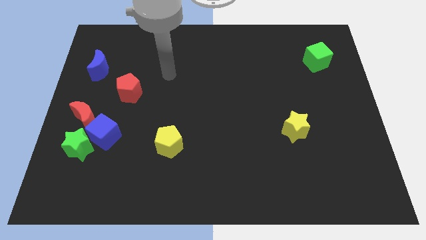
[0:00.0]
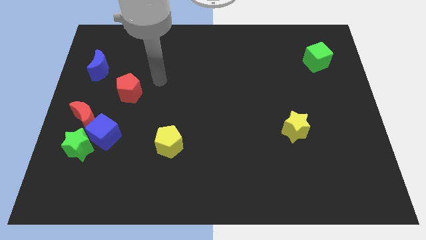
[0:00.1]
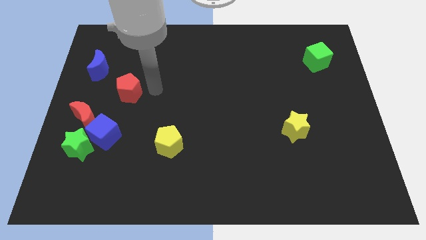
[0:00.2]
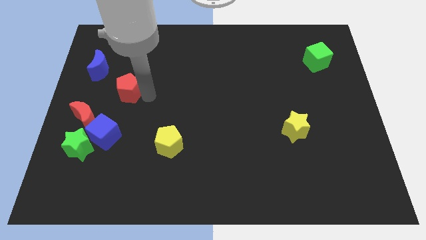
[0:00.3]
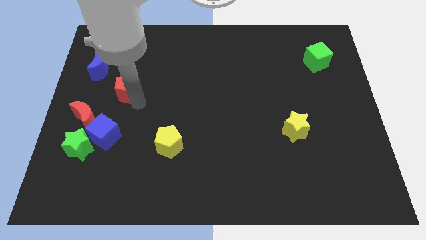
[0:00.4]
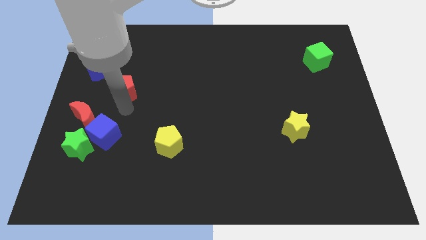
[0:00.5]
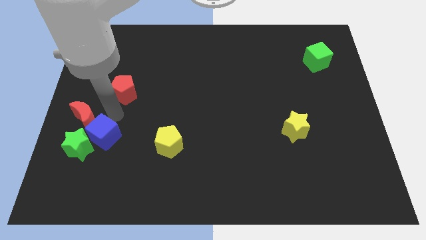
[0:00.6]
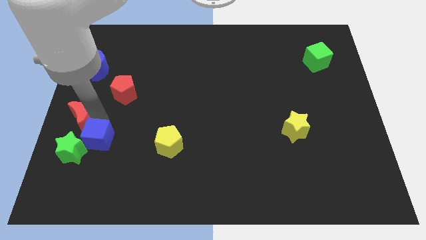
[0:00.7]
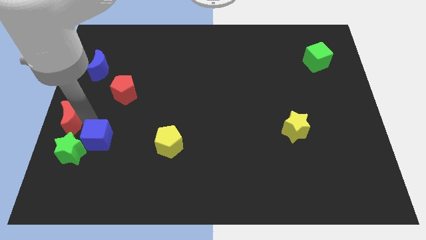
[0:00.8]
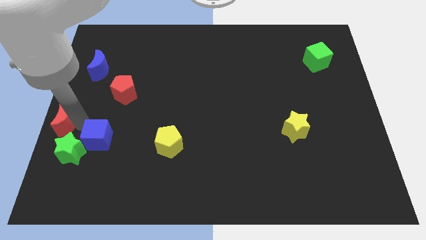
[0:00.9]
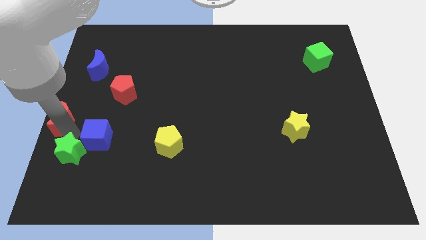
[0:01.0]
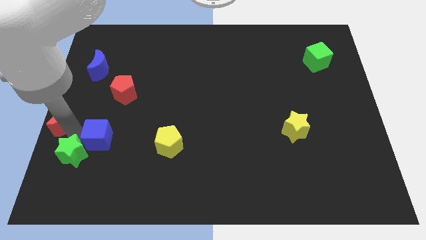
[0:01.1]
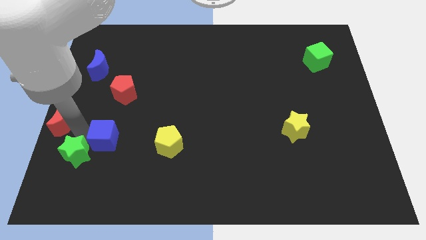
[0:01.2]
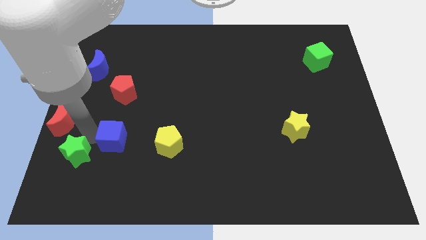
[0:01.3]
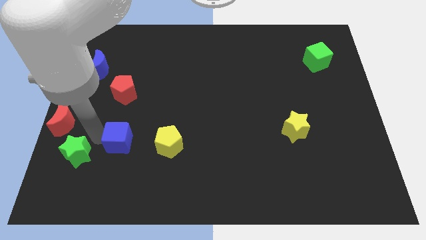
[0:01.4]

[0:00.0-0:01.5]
separate the blue cube from the green star and red moon

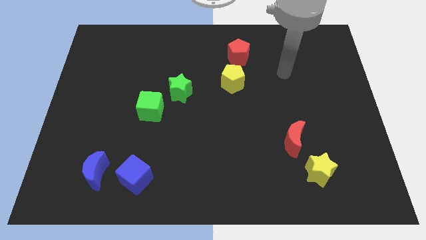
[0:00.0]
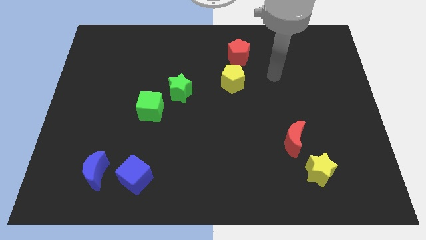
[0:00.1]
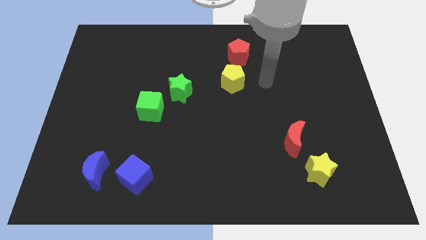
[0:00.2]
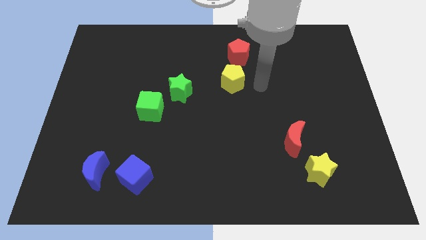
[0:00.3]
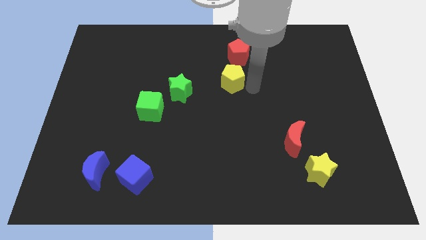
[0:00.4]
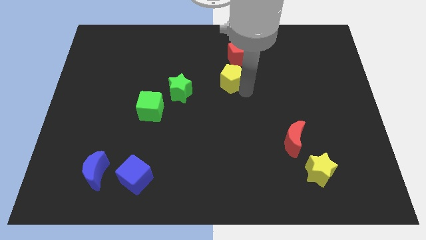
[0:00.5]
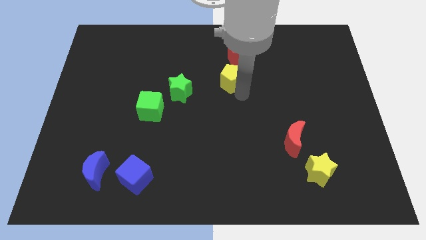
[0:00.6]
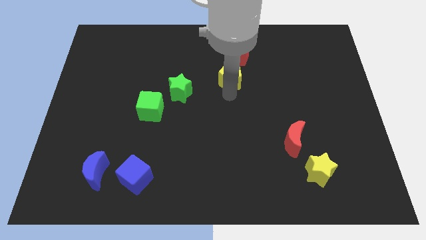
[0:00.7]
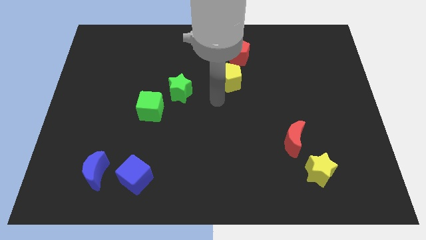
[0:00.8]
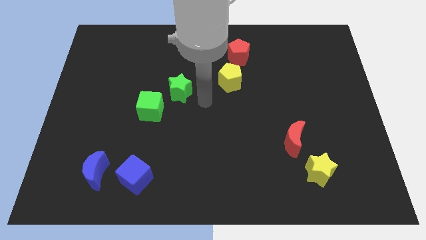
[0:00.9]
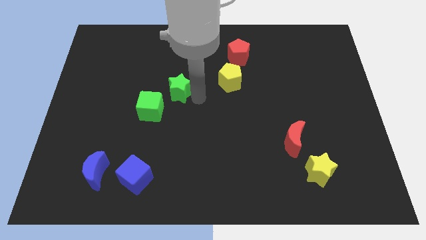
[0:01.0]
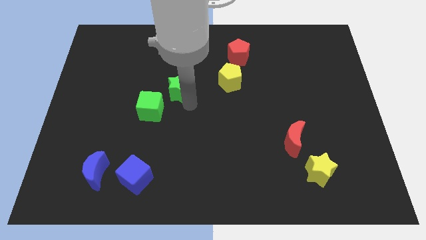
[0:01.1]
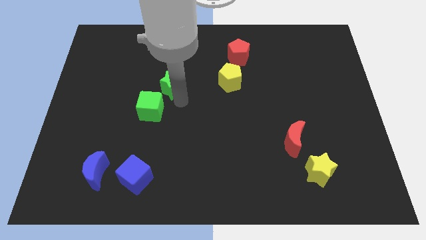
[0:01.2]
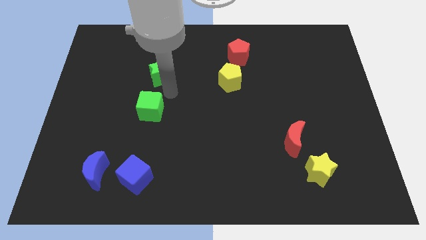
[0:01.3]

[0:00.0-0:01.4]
move the green cube away from the green star

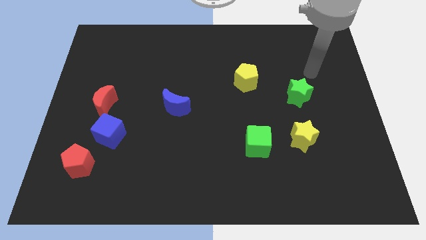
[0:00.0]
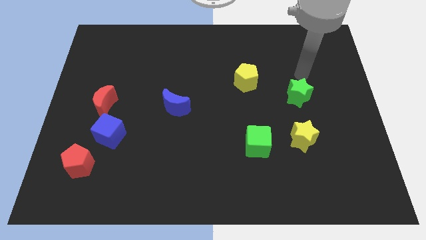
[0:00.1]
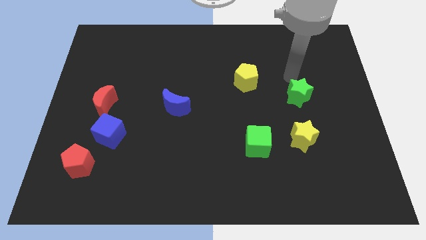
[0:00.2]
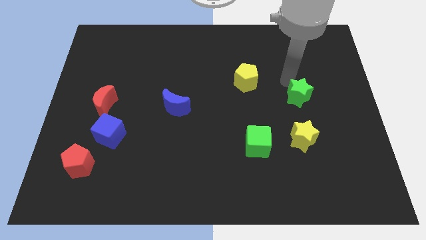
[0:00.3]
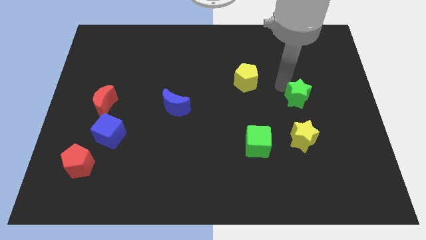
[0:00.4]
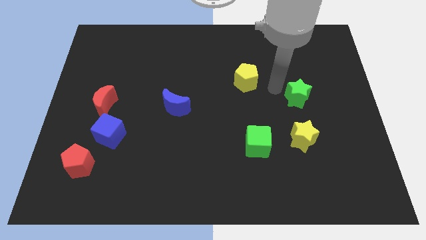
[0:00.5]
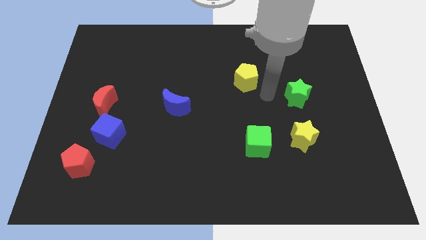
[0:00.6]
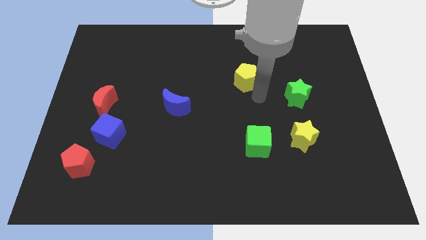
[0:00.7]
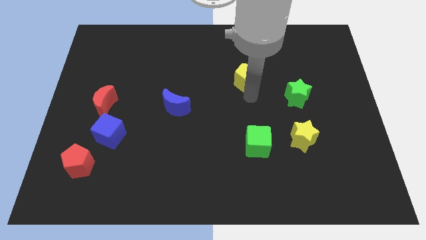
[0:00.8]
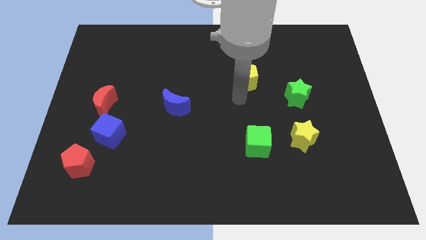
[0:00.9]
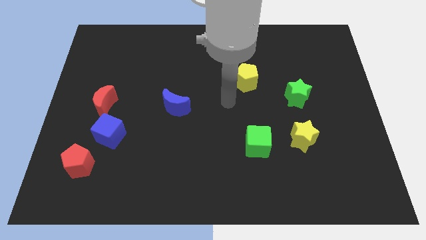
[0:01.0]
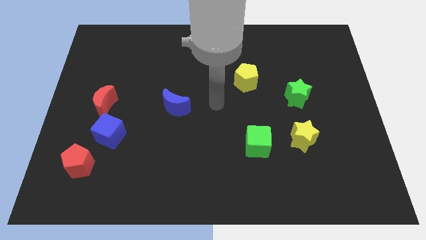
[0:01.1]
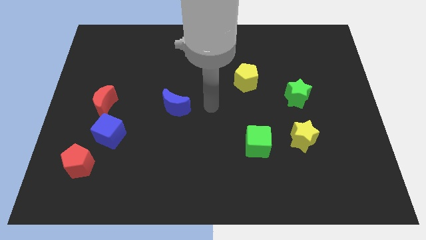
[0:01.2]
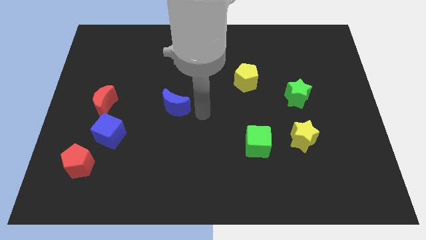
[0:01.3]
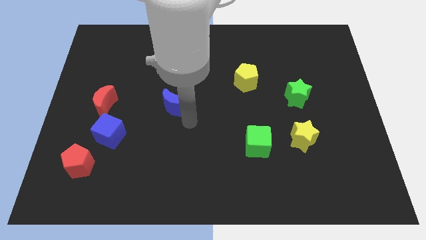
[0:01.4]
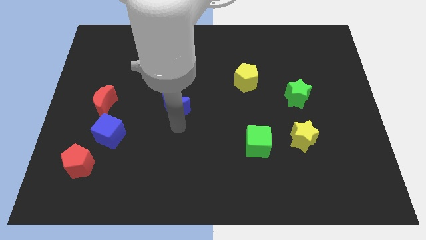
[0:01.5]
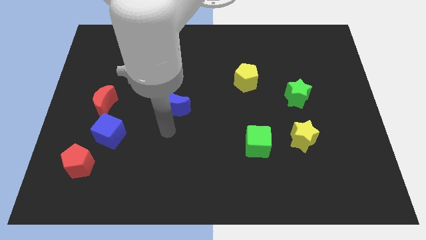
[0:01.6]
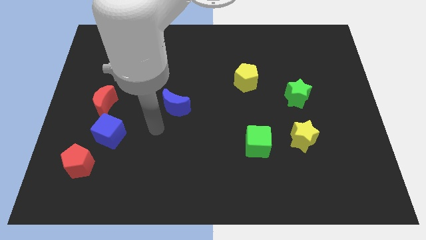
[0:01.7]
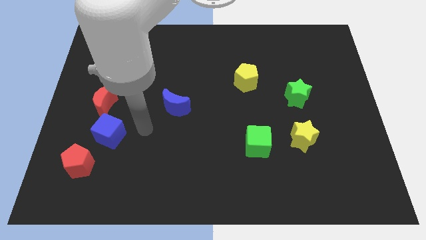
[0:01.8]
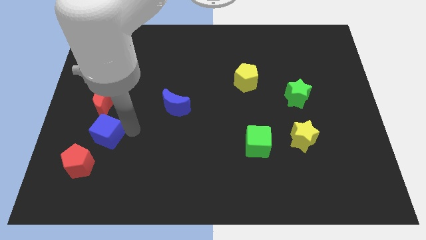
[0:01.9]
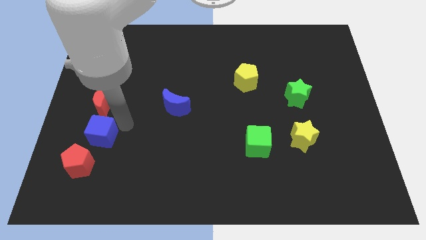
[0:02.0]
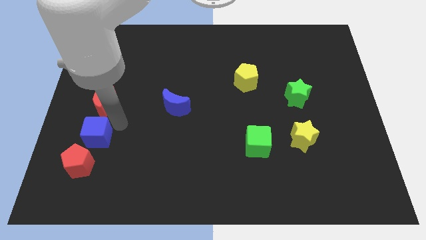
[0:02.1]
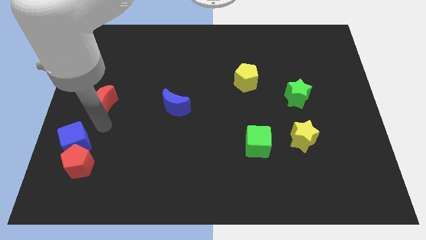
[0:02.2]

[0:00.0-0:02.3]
pull the red moon apart from the blue cube

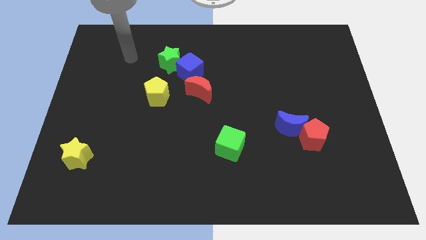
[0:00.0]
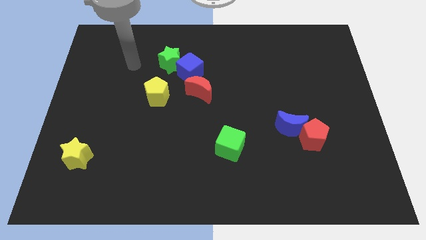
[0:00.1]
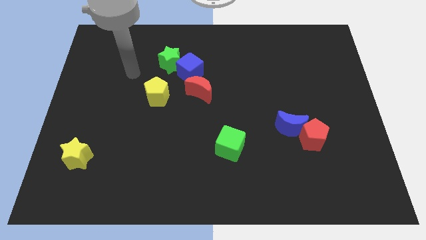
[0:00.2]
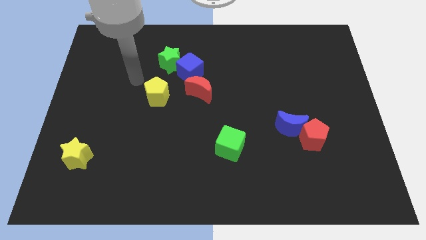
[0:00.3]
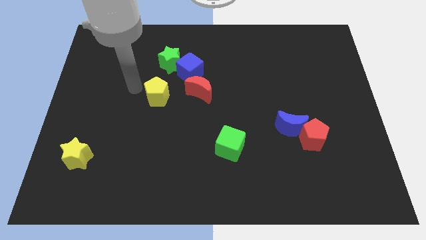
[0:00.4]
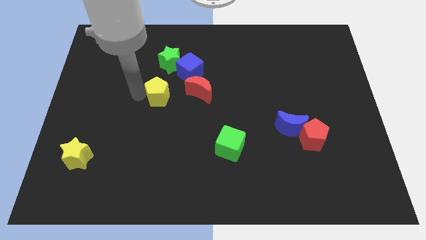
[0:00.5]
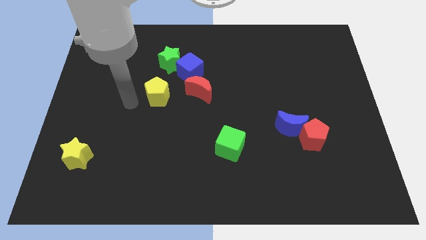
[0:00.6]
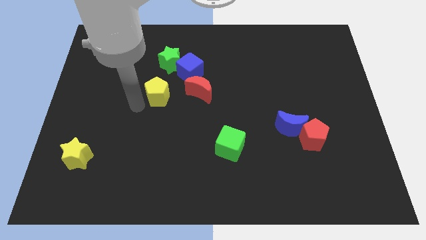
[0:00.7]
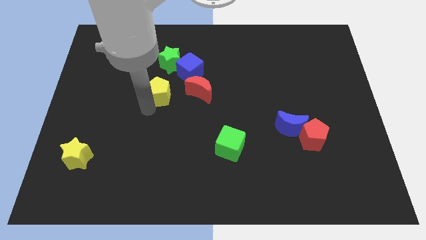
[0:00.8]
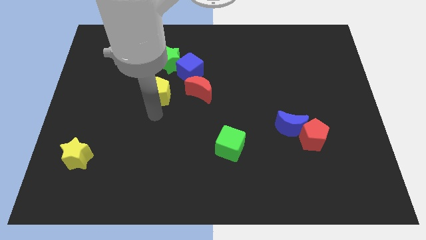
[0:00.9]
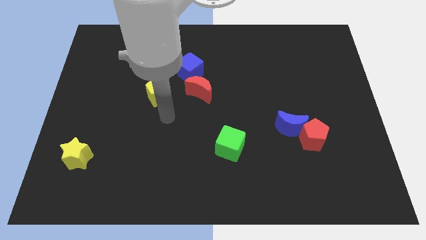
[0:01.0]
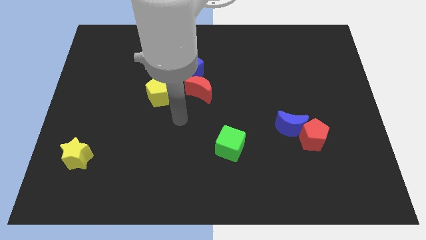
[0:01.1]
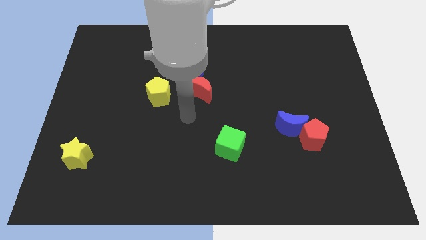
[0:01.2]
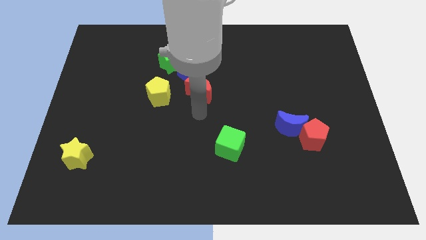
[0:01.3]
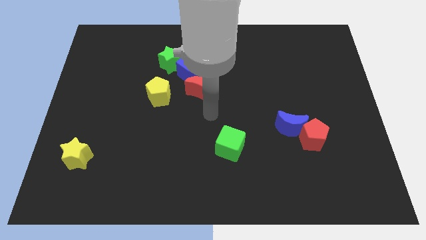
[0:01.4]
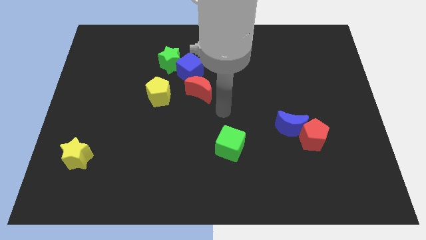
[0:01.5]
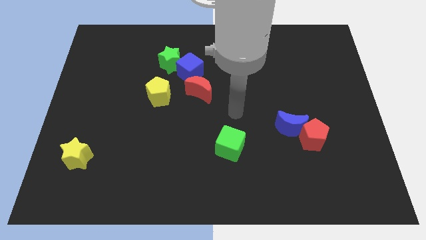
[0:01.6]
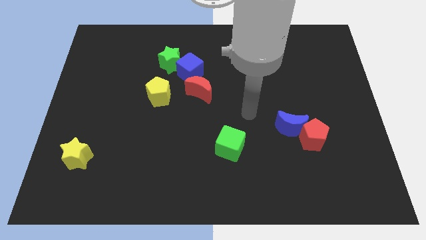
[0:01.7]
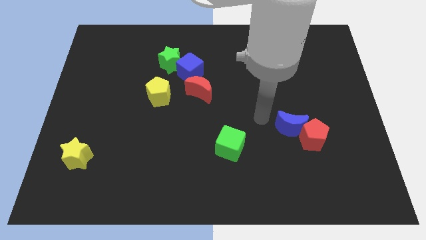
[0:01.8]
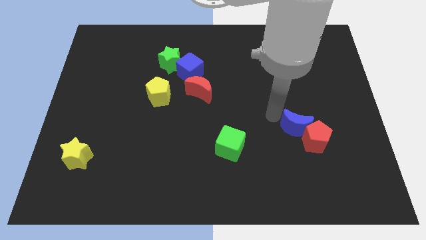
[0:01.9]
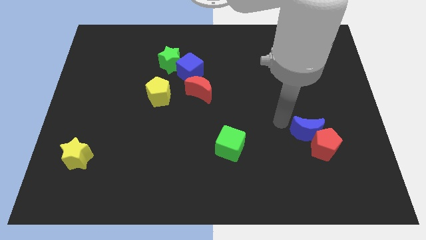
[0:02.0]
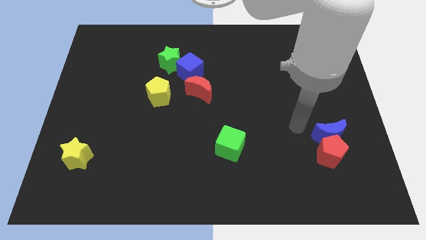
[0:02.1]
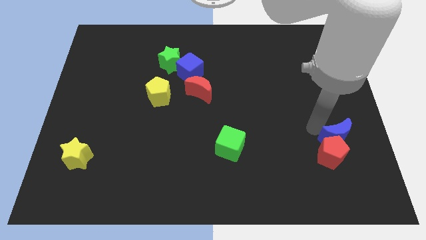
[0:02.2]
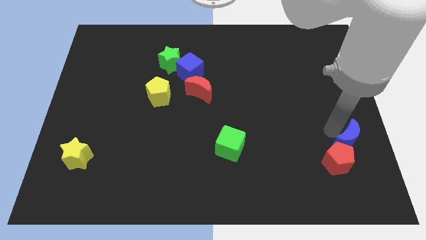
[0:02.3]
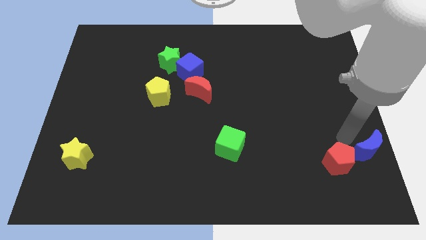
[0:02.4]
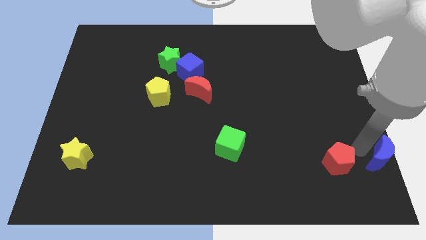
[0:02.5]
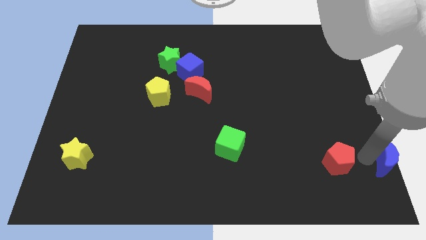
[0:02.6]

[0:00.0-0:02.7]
separate the red pentagon from the blue moon

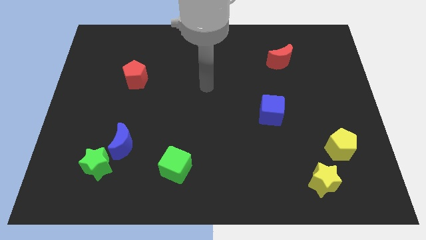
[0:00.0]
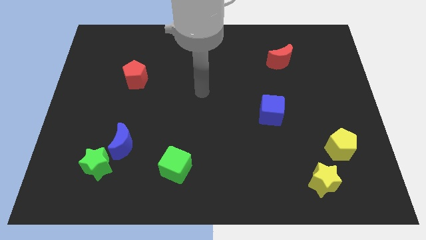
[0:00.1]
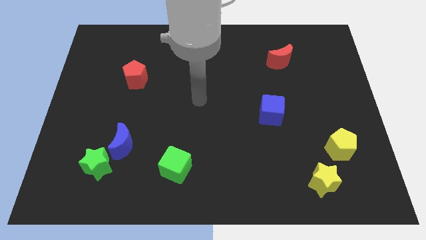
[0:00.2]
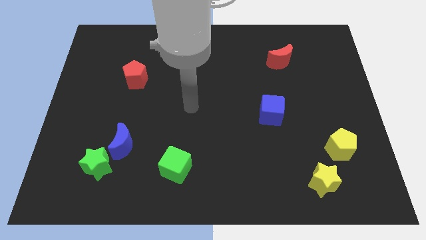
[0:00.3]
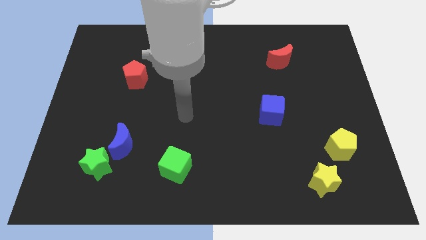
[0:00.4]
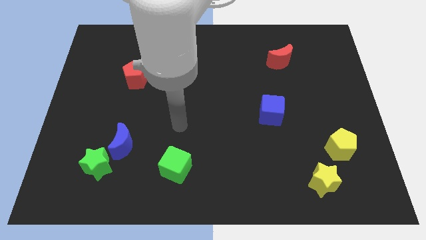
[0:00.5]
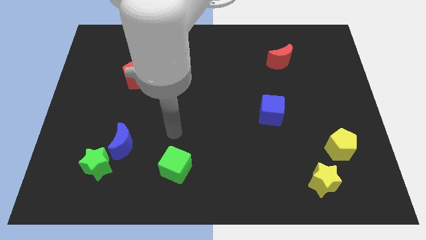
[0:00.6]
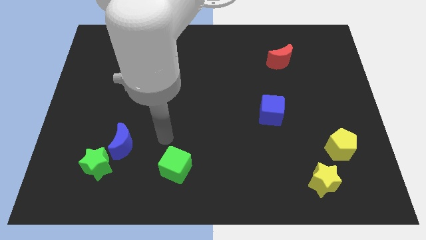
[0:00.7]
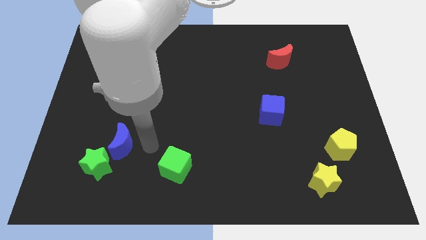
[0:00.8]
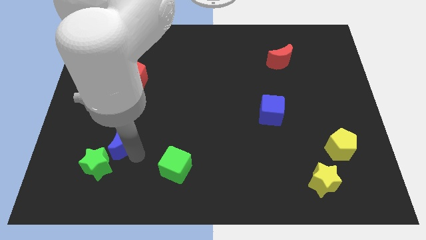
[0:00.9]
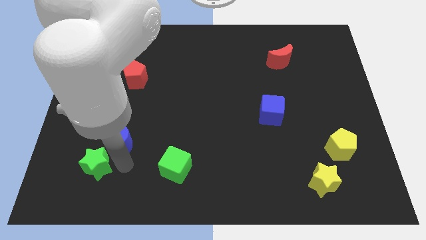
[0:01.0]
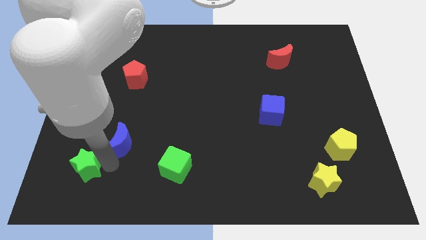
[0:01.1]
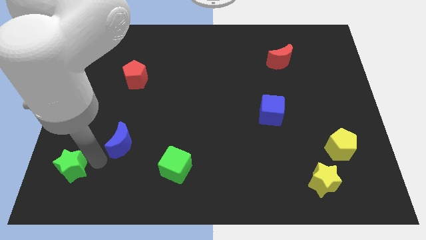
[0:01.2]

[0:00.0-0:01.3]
pull the blue moon apart from the green star

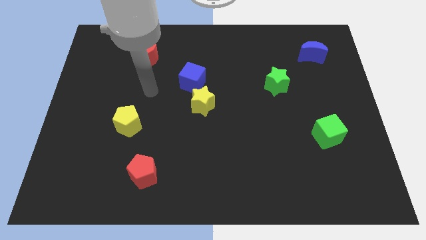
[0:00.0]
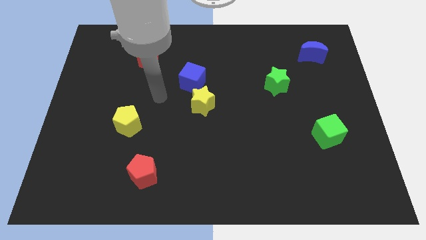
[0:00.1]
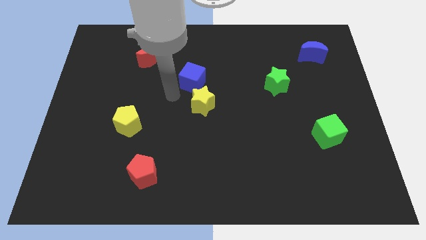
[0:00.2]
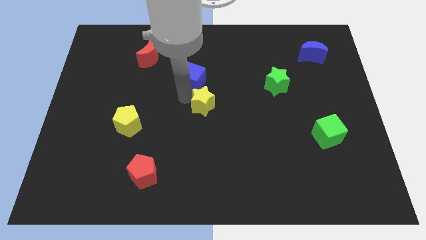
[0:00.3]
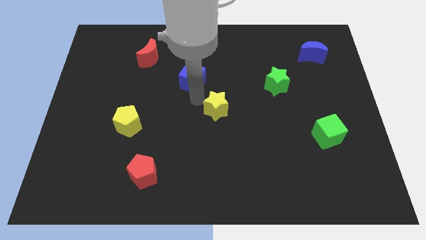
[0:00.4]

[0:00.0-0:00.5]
separate the blue cube from the yellow star
